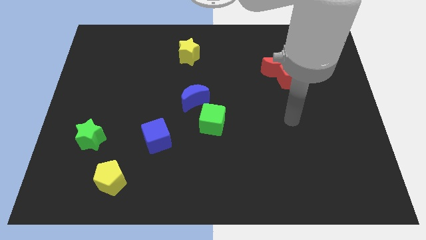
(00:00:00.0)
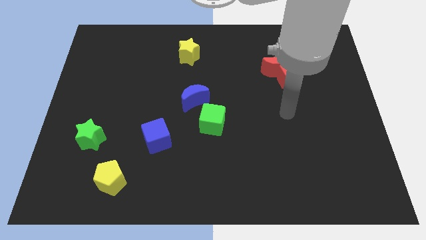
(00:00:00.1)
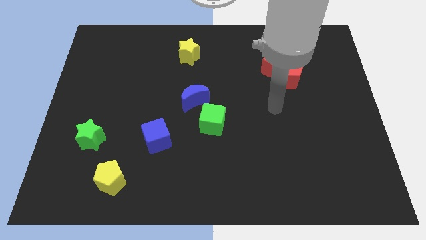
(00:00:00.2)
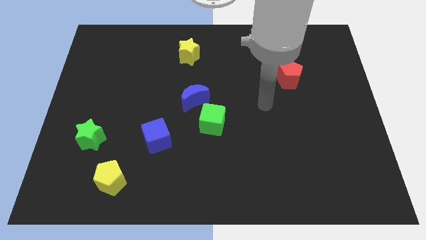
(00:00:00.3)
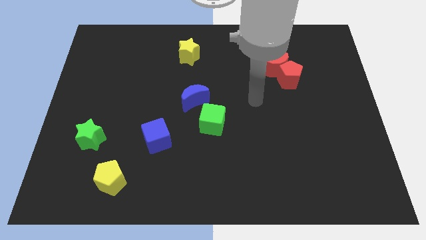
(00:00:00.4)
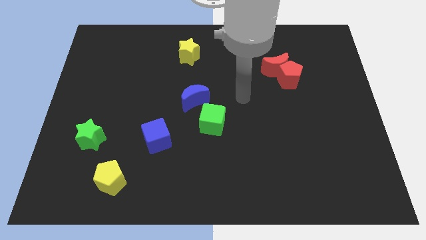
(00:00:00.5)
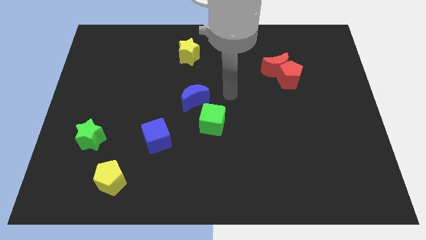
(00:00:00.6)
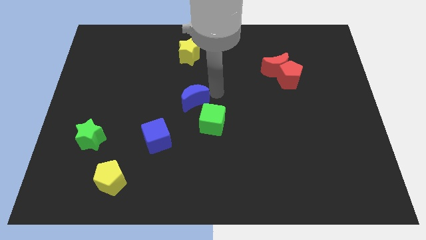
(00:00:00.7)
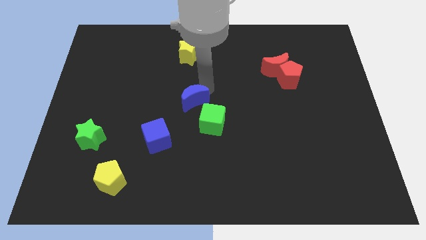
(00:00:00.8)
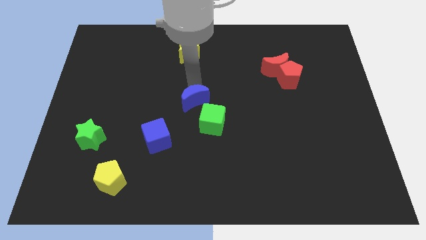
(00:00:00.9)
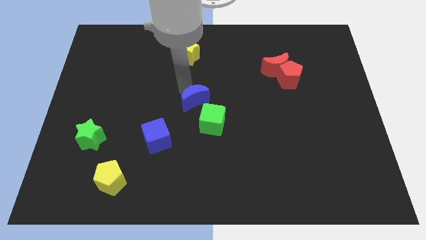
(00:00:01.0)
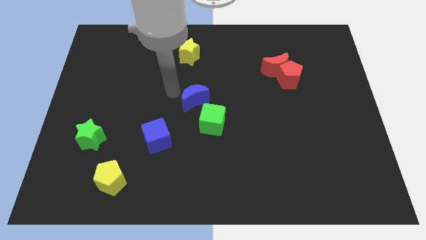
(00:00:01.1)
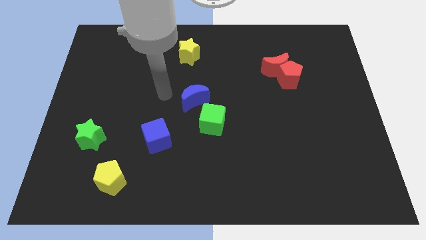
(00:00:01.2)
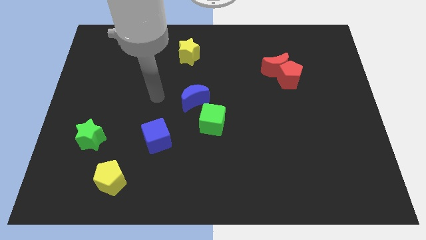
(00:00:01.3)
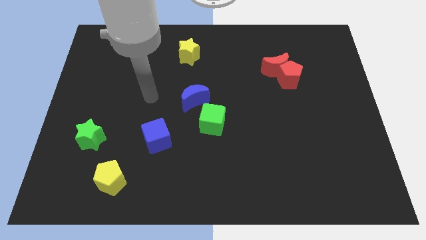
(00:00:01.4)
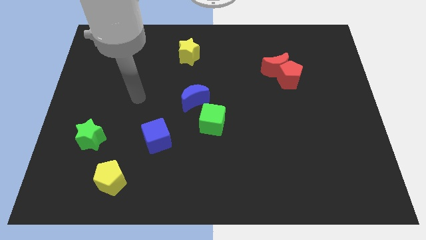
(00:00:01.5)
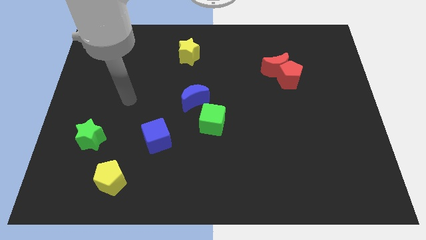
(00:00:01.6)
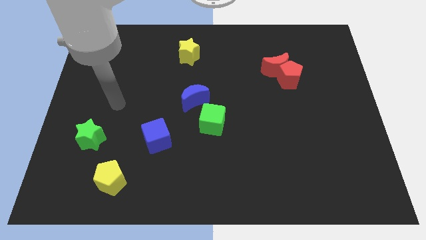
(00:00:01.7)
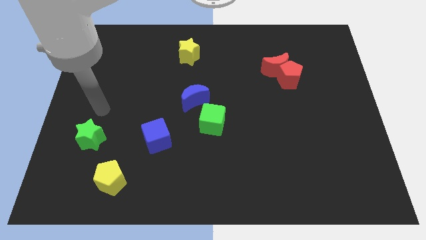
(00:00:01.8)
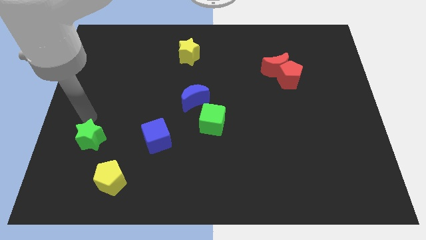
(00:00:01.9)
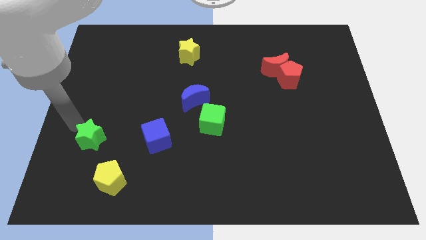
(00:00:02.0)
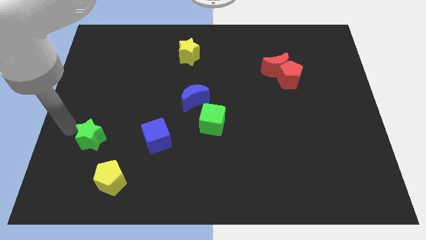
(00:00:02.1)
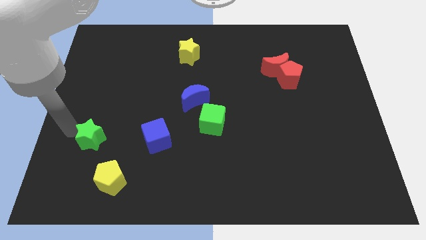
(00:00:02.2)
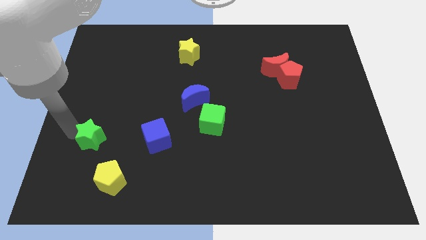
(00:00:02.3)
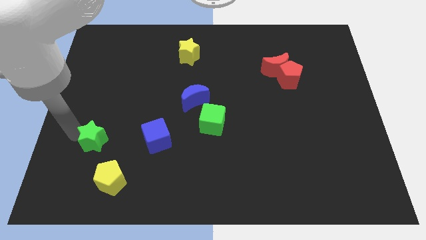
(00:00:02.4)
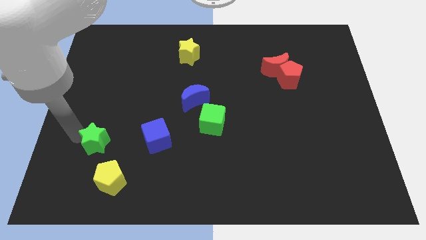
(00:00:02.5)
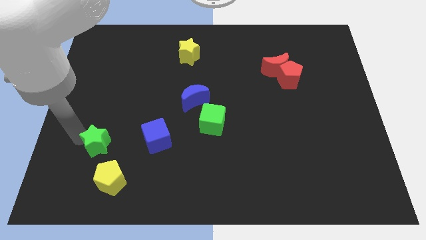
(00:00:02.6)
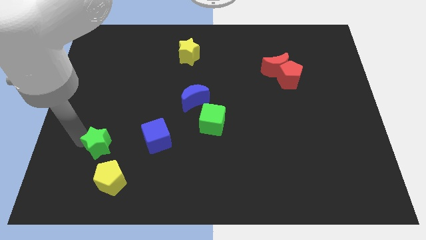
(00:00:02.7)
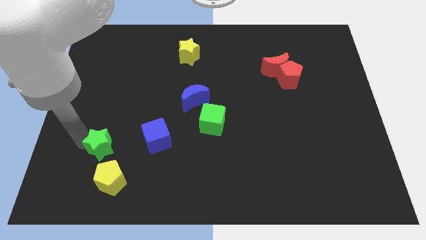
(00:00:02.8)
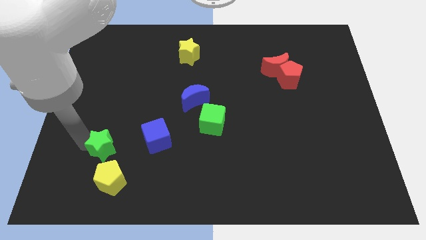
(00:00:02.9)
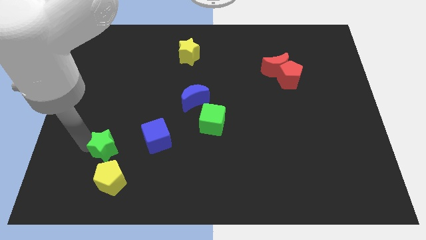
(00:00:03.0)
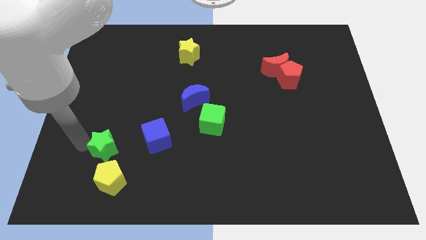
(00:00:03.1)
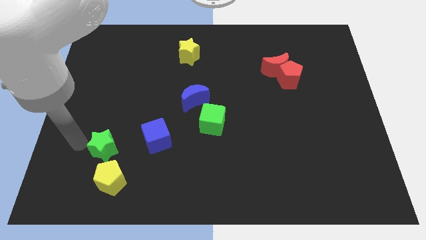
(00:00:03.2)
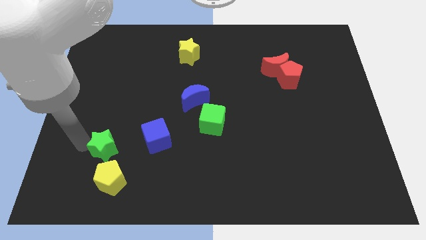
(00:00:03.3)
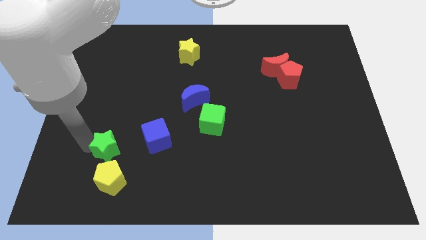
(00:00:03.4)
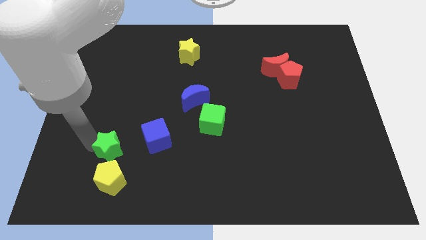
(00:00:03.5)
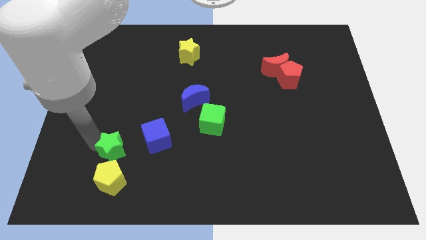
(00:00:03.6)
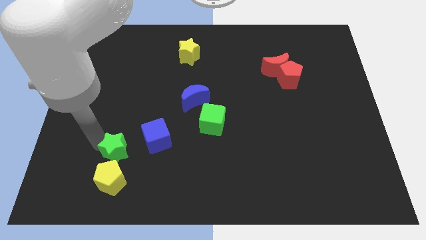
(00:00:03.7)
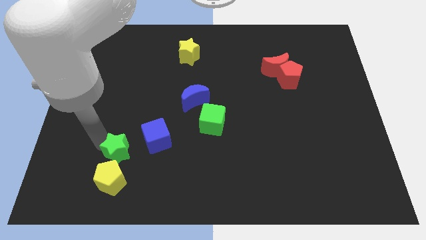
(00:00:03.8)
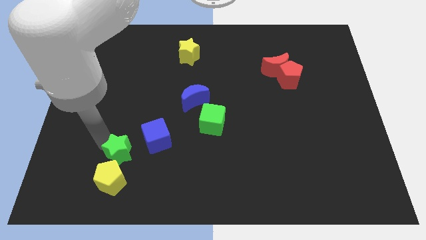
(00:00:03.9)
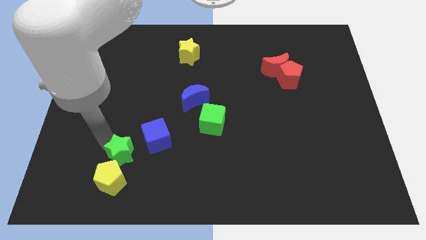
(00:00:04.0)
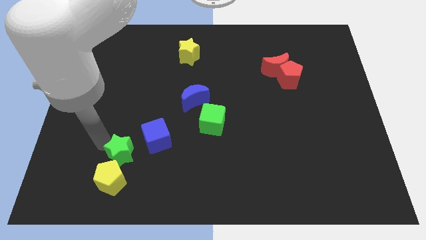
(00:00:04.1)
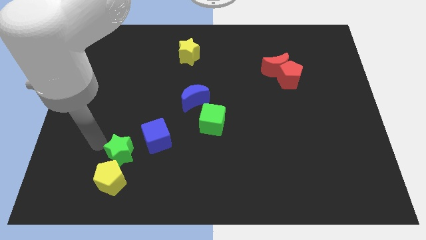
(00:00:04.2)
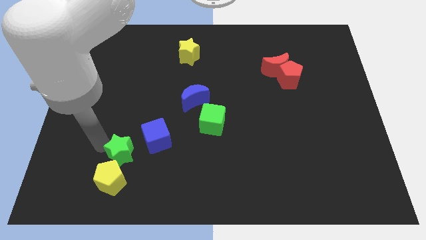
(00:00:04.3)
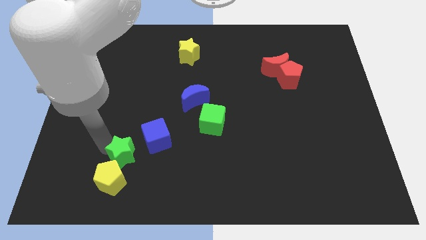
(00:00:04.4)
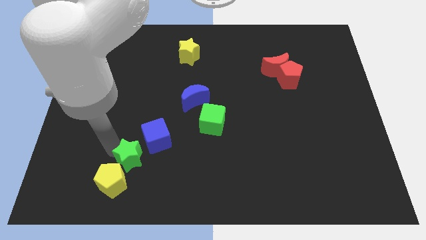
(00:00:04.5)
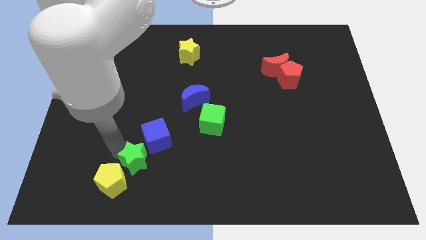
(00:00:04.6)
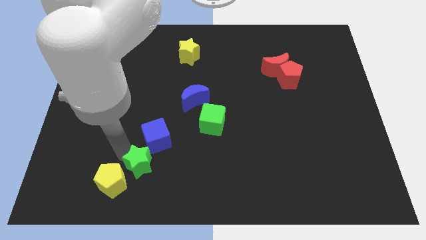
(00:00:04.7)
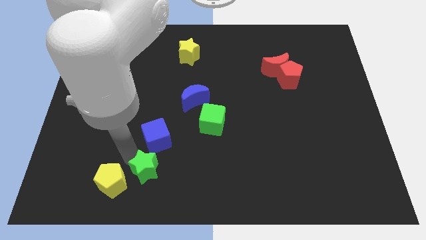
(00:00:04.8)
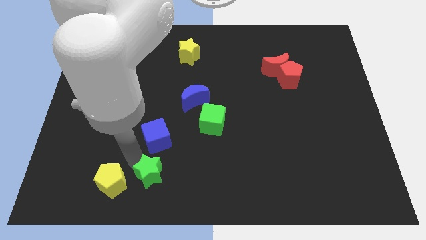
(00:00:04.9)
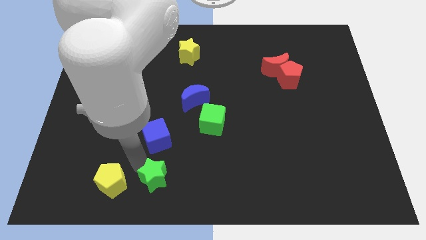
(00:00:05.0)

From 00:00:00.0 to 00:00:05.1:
put the green star to the bottom

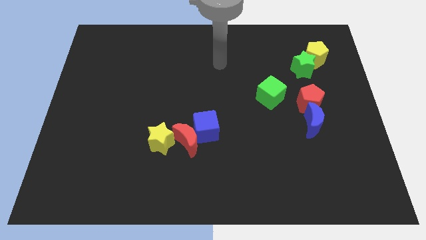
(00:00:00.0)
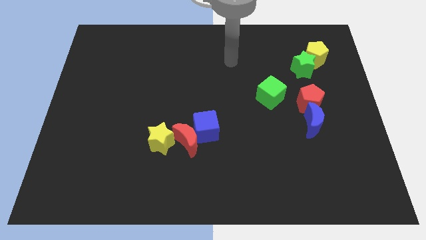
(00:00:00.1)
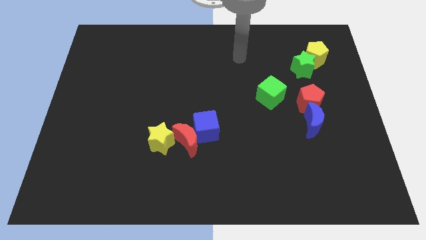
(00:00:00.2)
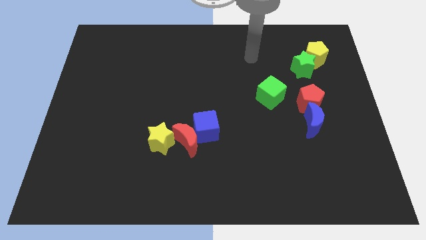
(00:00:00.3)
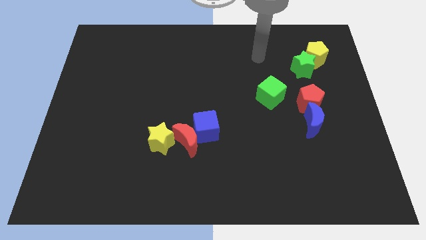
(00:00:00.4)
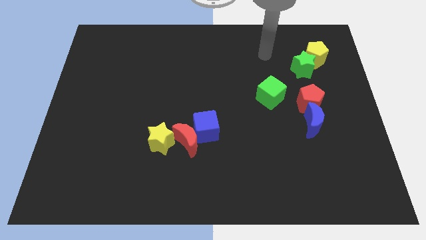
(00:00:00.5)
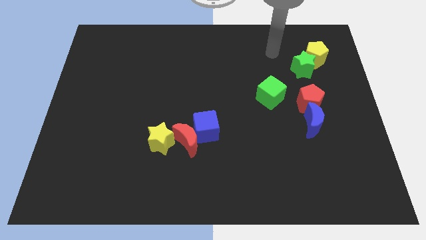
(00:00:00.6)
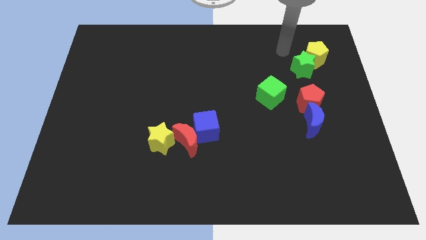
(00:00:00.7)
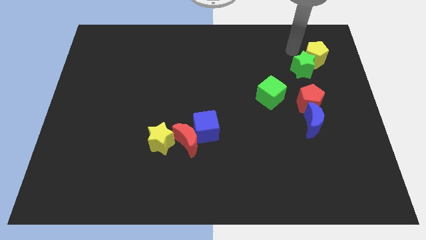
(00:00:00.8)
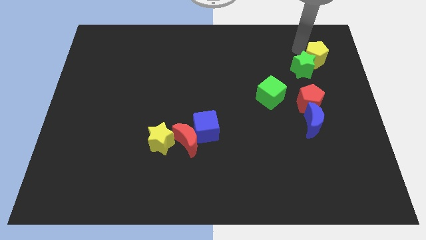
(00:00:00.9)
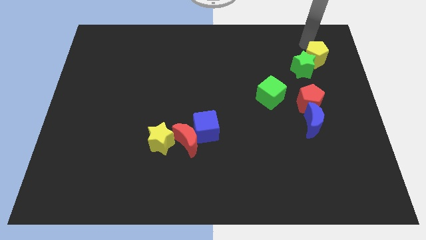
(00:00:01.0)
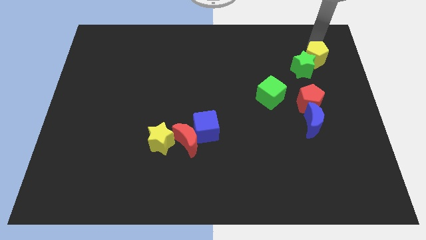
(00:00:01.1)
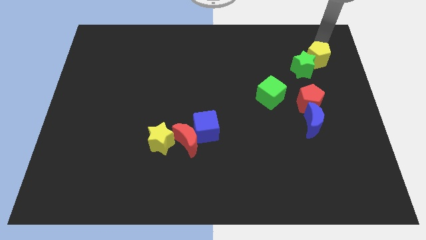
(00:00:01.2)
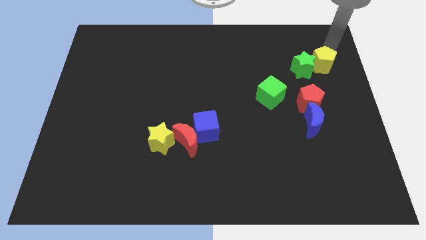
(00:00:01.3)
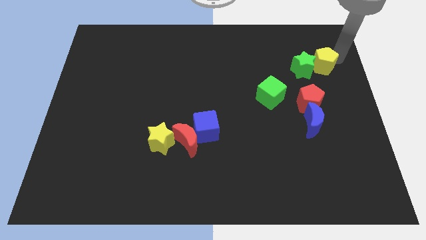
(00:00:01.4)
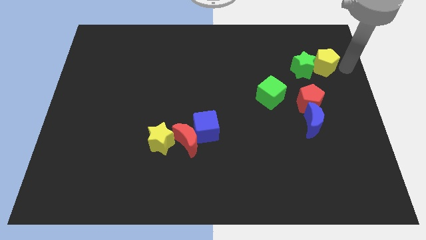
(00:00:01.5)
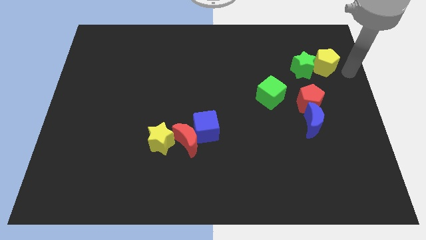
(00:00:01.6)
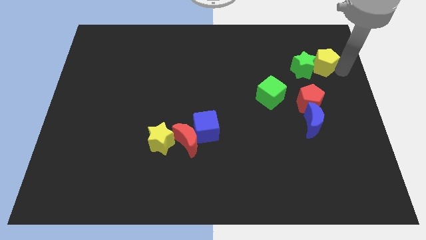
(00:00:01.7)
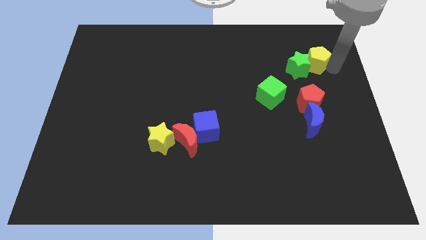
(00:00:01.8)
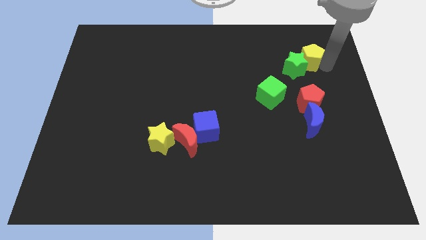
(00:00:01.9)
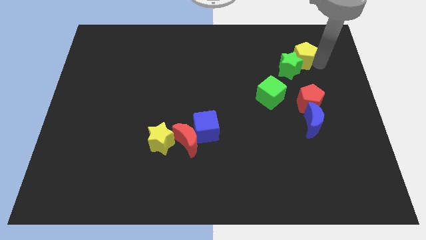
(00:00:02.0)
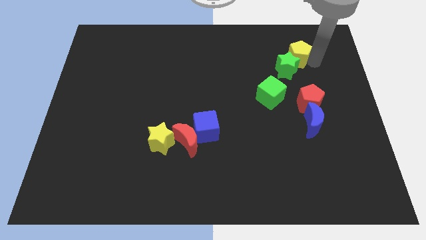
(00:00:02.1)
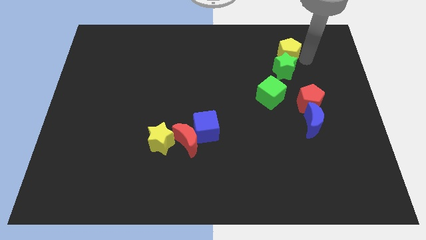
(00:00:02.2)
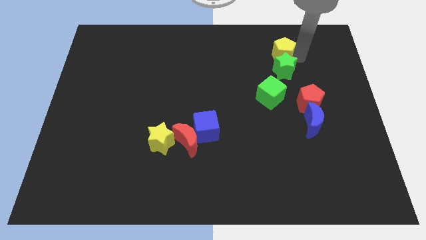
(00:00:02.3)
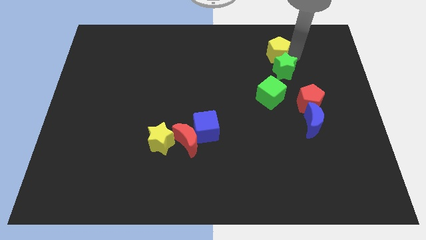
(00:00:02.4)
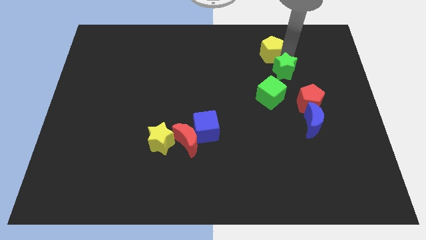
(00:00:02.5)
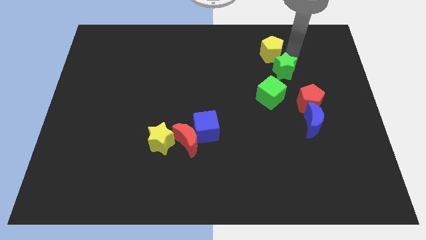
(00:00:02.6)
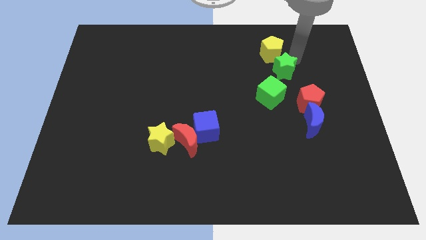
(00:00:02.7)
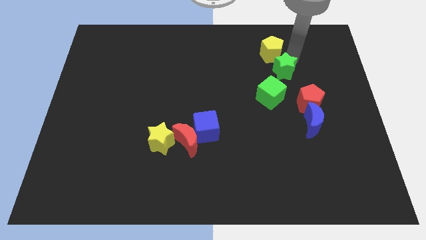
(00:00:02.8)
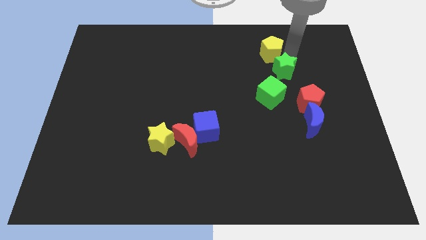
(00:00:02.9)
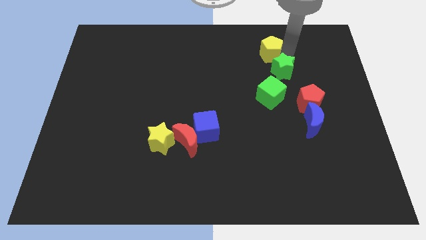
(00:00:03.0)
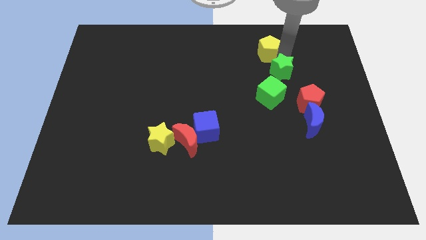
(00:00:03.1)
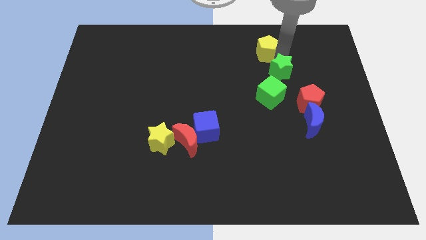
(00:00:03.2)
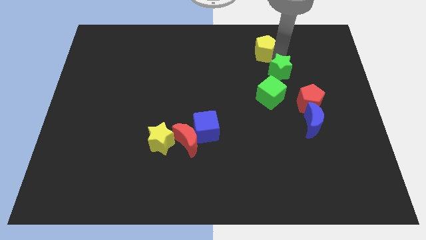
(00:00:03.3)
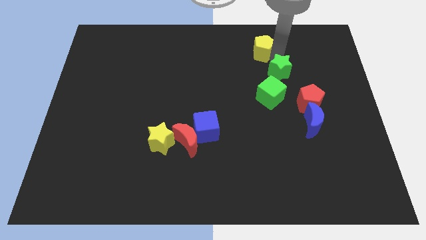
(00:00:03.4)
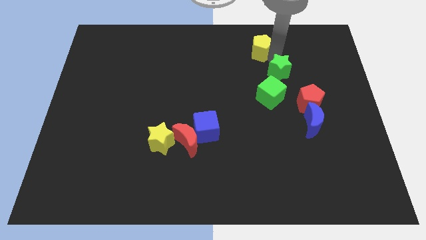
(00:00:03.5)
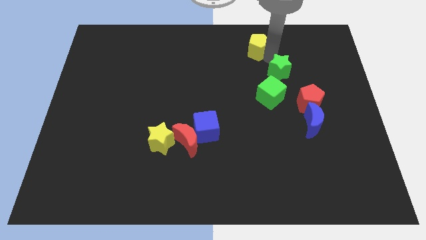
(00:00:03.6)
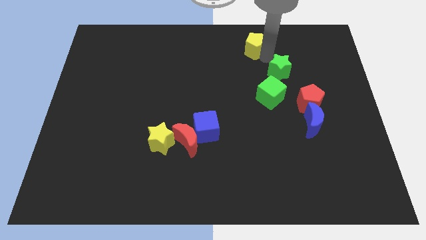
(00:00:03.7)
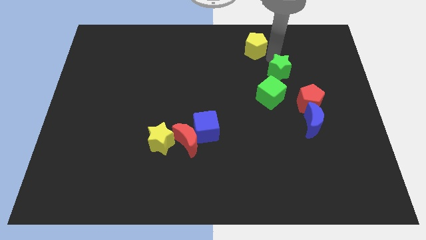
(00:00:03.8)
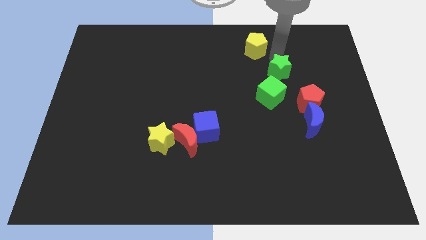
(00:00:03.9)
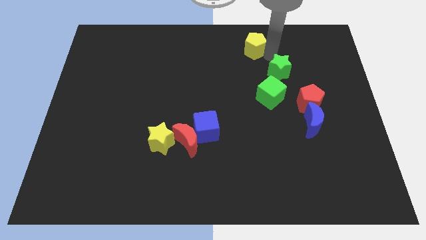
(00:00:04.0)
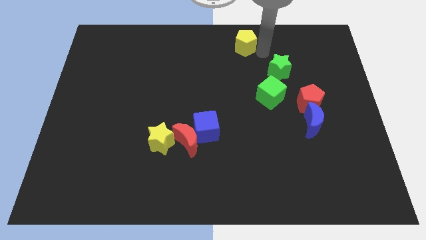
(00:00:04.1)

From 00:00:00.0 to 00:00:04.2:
put the yellow pentagon to the top
